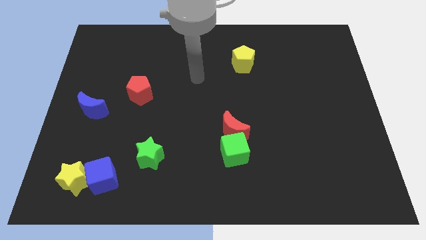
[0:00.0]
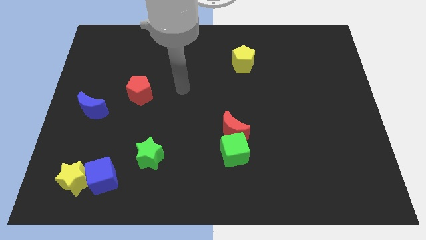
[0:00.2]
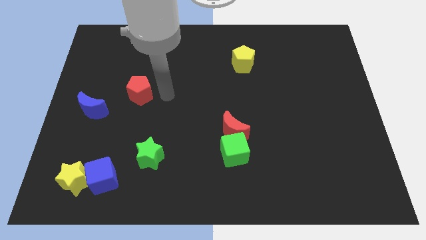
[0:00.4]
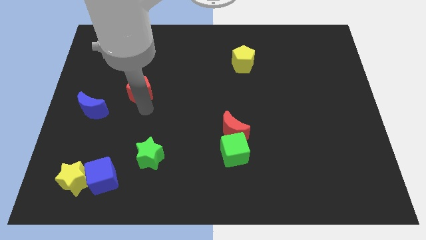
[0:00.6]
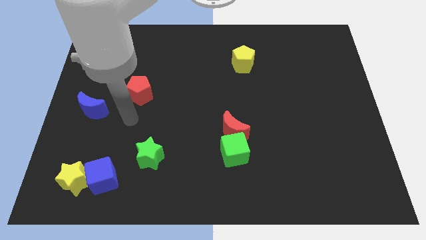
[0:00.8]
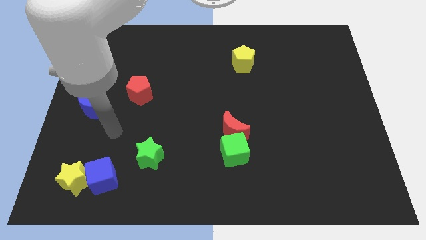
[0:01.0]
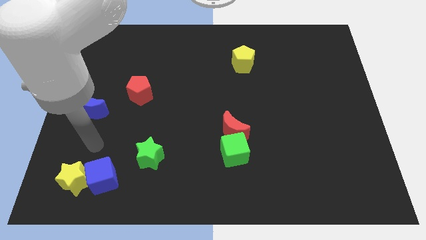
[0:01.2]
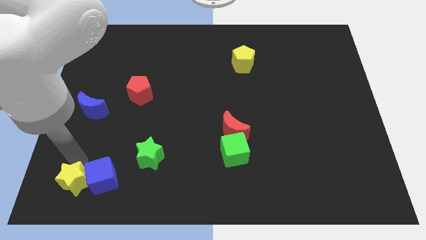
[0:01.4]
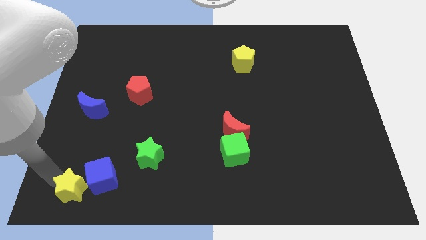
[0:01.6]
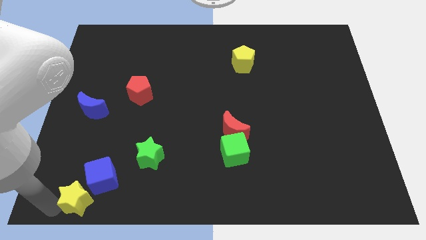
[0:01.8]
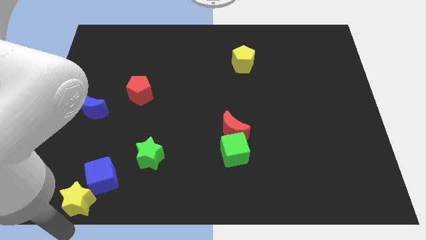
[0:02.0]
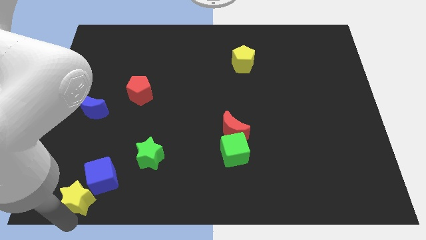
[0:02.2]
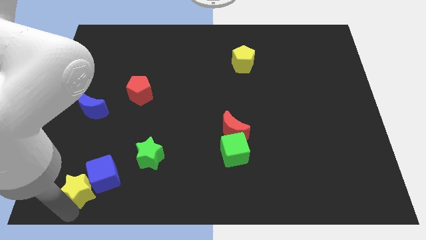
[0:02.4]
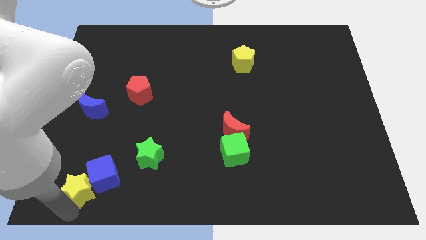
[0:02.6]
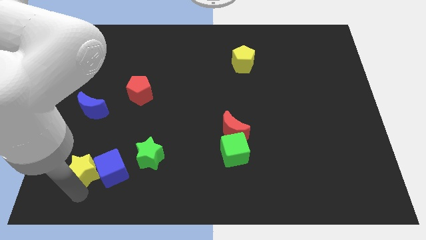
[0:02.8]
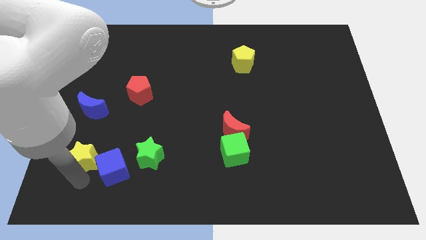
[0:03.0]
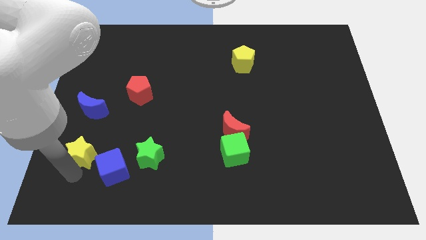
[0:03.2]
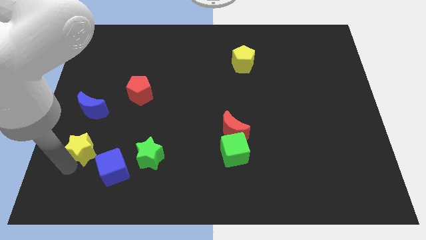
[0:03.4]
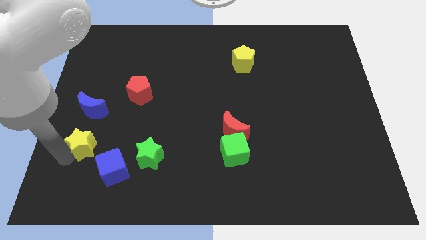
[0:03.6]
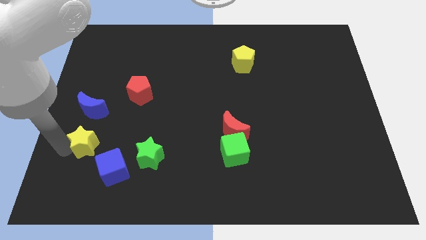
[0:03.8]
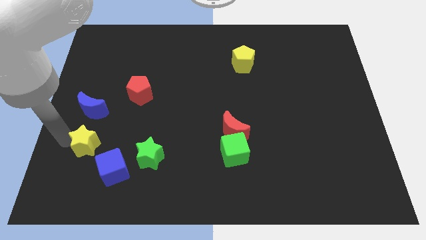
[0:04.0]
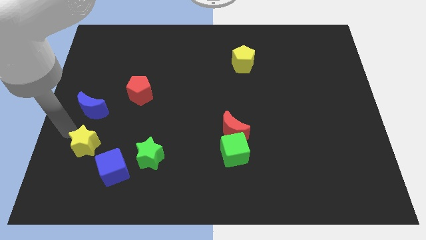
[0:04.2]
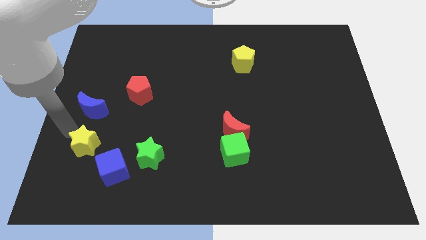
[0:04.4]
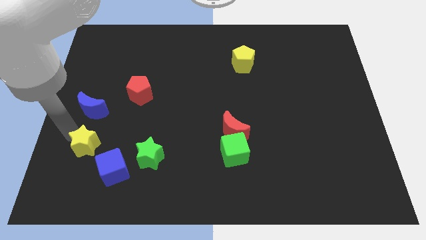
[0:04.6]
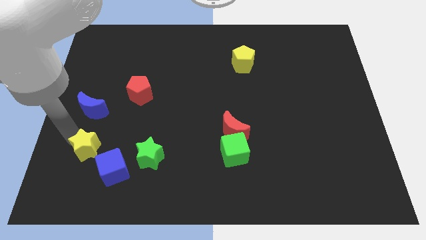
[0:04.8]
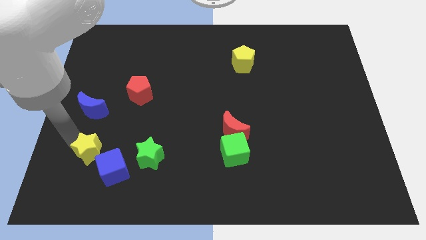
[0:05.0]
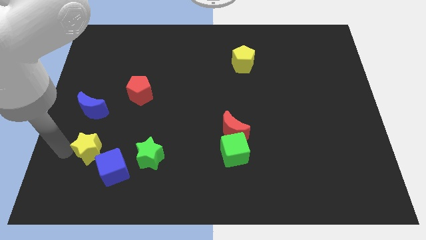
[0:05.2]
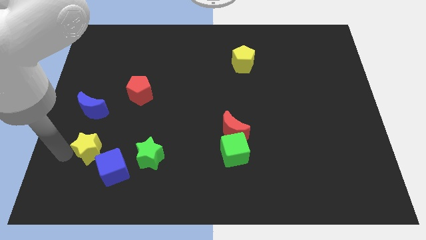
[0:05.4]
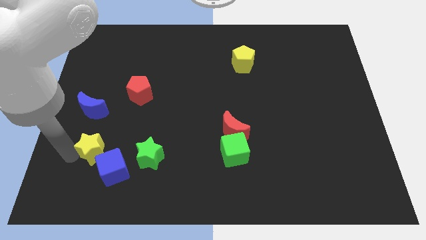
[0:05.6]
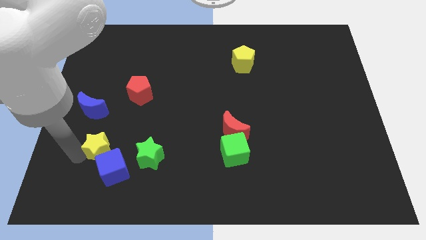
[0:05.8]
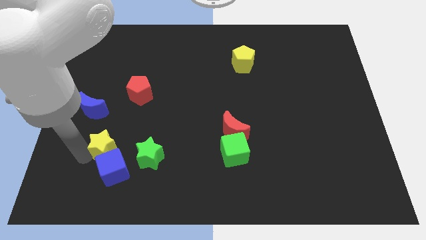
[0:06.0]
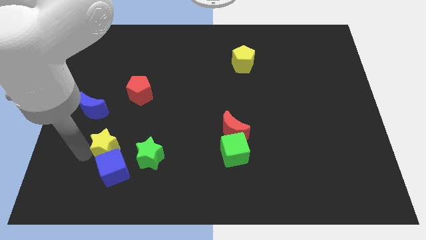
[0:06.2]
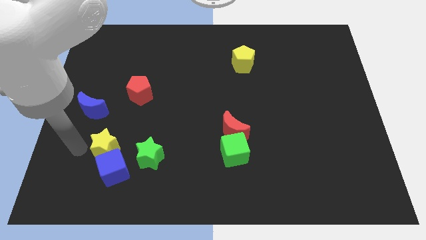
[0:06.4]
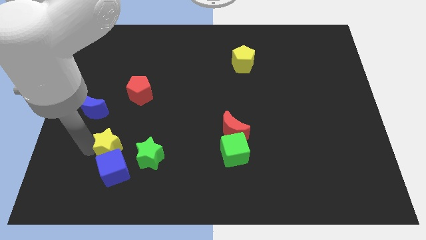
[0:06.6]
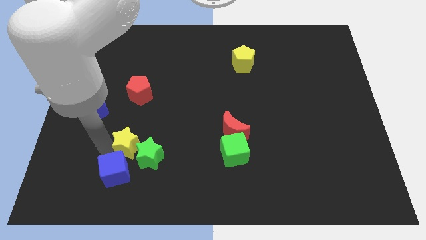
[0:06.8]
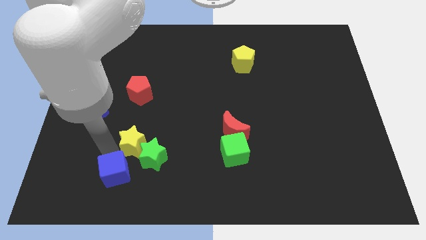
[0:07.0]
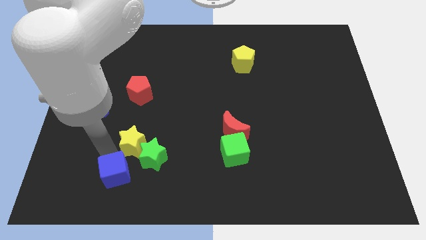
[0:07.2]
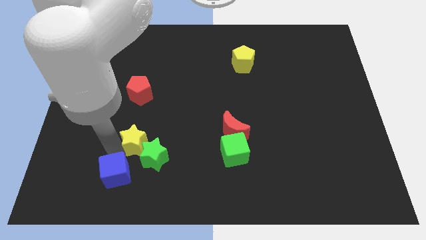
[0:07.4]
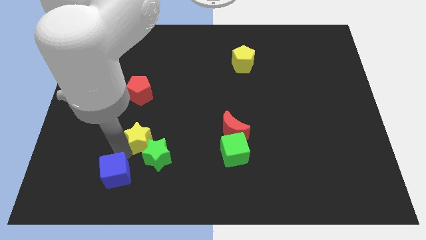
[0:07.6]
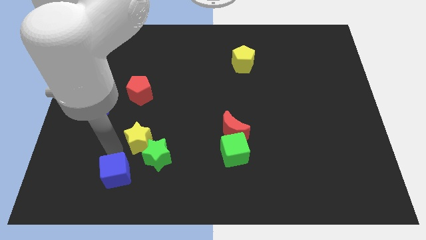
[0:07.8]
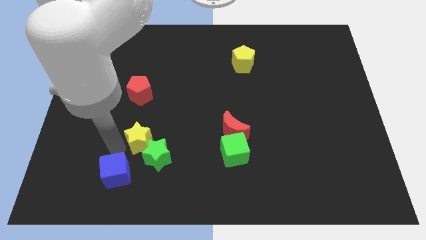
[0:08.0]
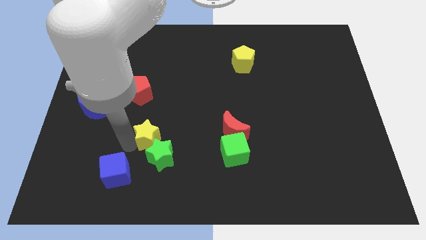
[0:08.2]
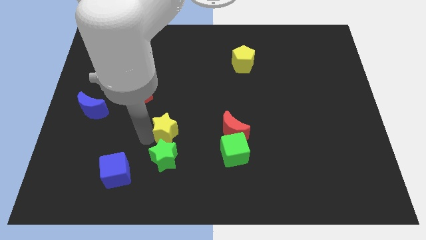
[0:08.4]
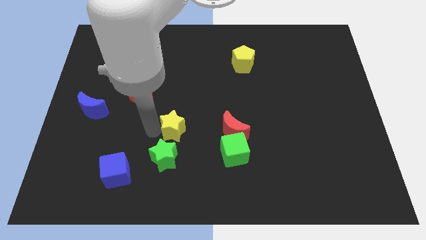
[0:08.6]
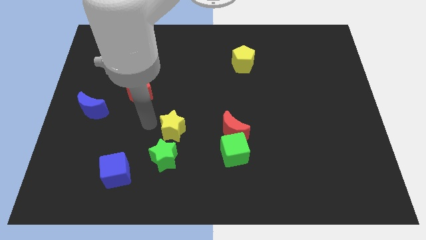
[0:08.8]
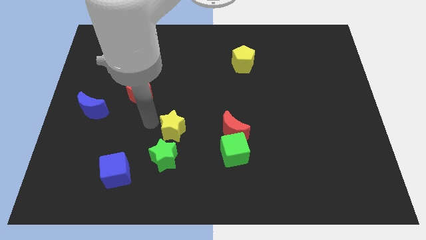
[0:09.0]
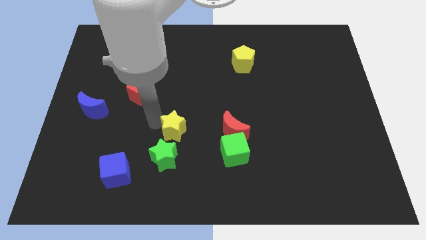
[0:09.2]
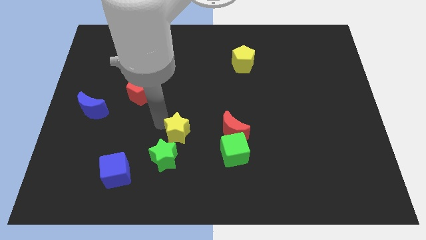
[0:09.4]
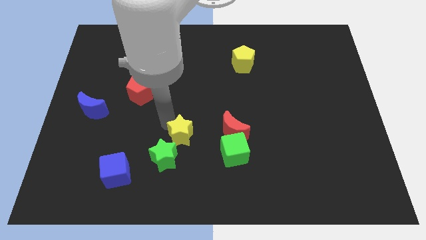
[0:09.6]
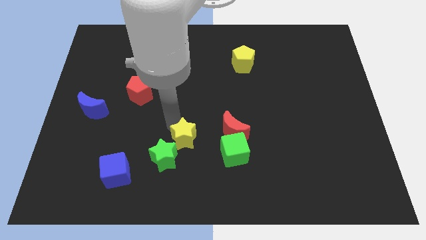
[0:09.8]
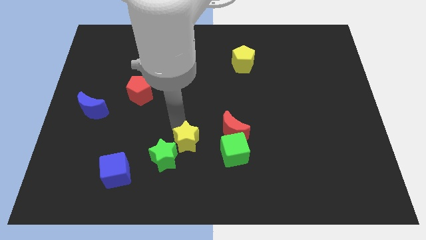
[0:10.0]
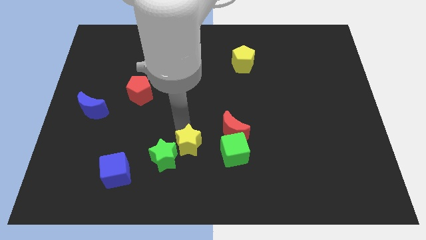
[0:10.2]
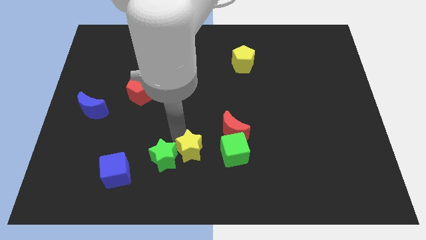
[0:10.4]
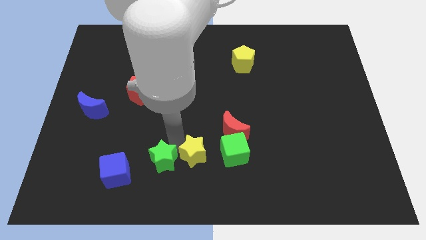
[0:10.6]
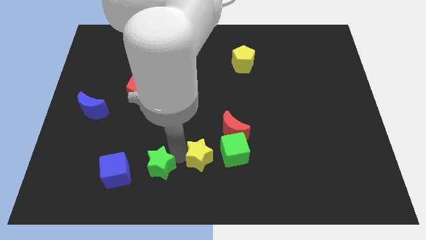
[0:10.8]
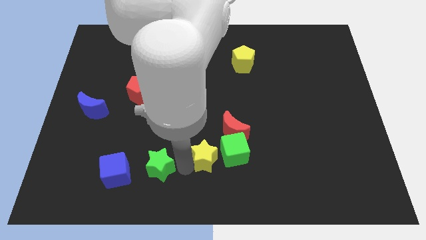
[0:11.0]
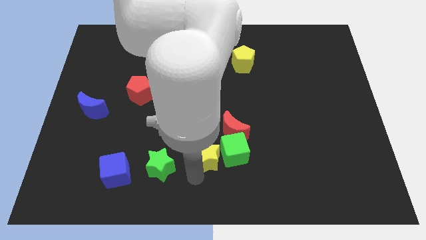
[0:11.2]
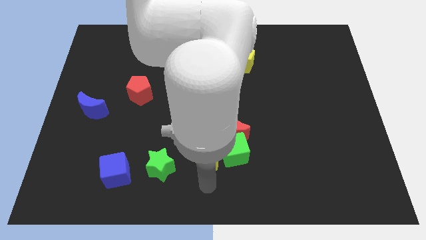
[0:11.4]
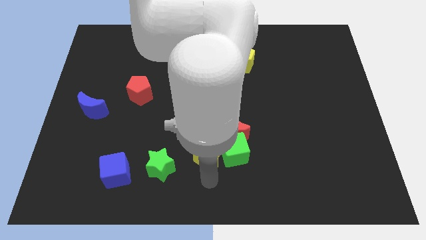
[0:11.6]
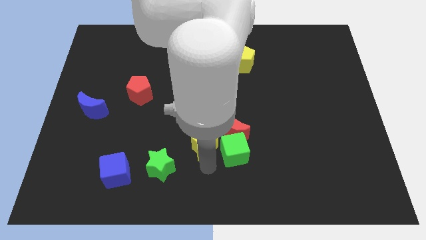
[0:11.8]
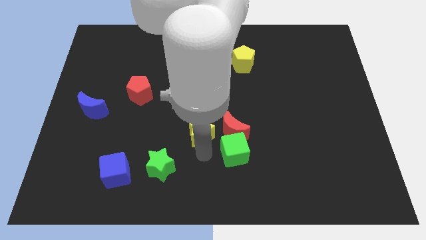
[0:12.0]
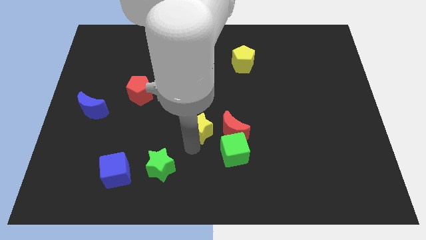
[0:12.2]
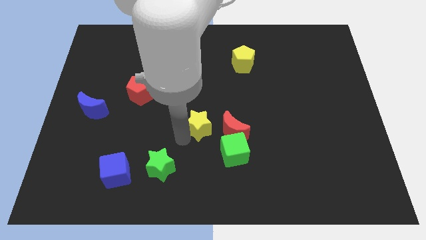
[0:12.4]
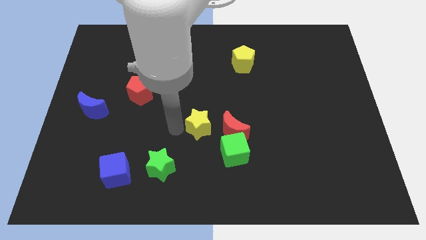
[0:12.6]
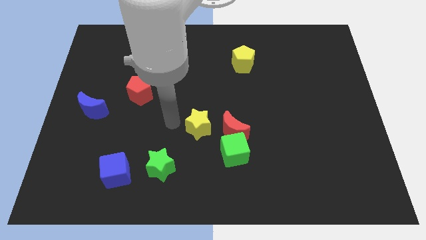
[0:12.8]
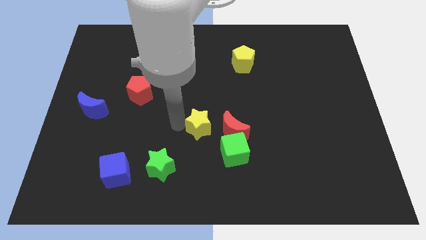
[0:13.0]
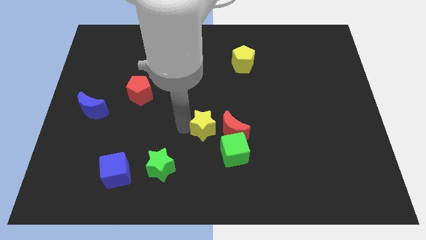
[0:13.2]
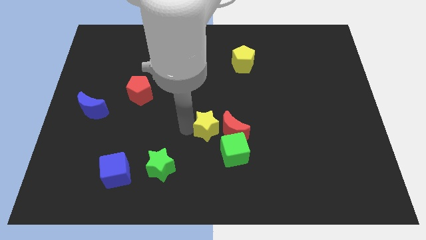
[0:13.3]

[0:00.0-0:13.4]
put the yellow star to the red moon

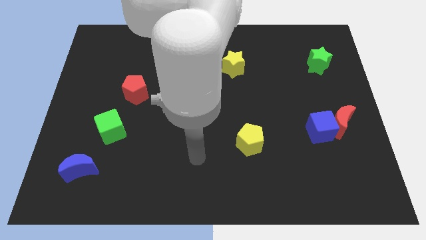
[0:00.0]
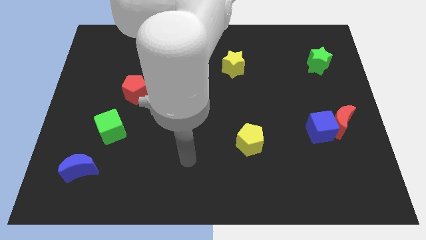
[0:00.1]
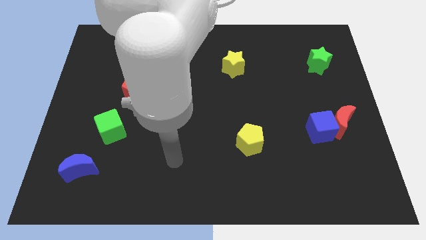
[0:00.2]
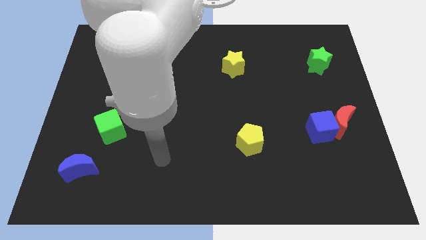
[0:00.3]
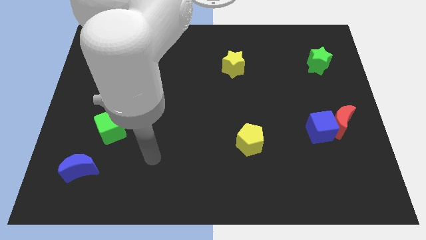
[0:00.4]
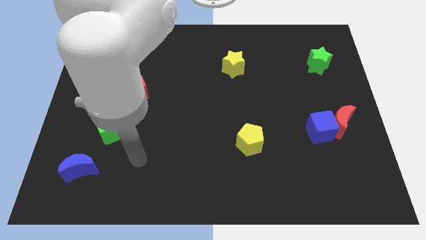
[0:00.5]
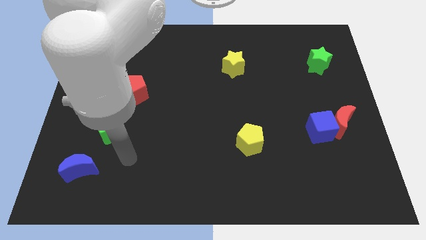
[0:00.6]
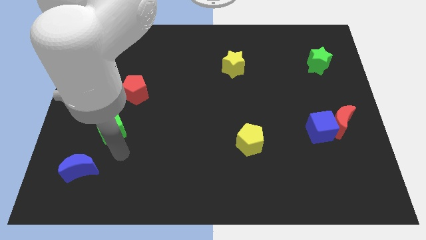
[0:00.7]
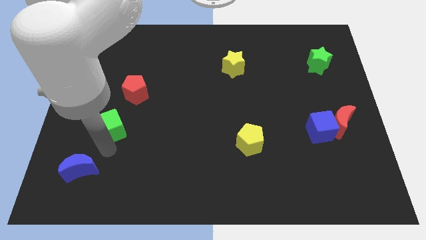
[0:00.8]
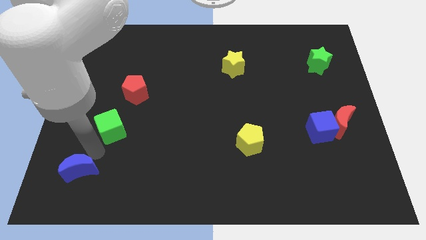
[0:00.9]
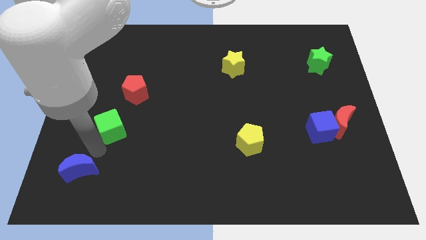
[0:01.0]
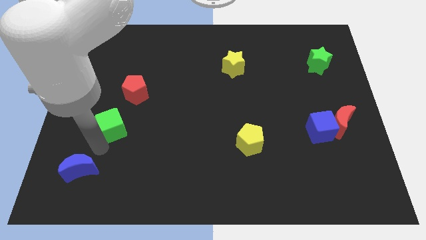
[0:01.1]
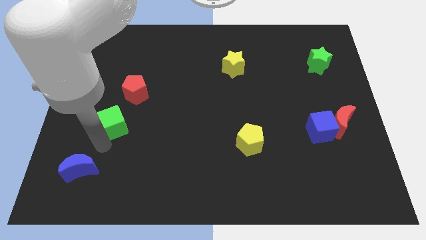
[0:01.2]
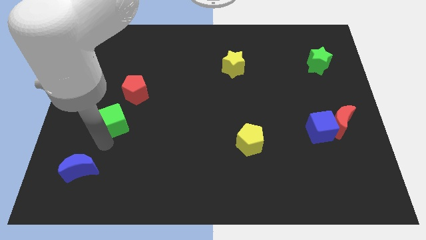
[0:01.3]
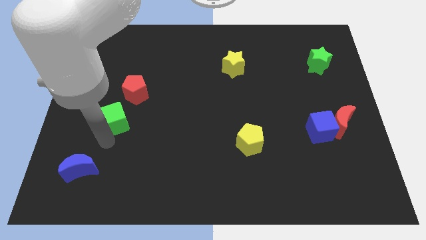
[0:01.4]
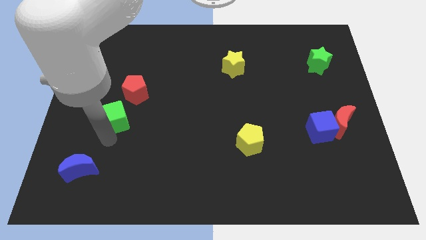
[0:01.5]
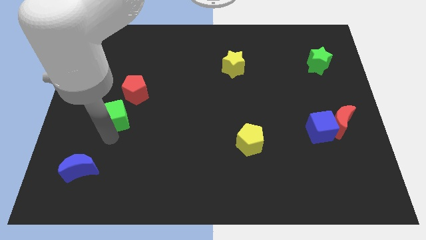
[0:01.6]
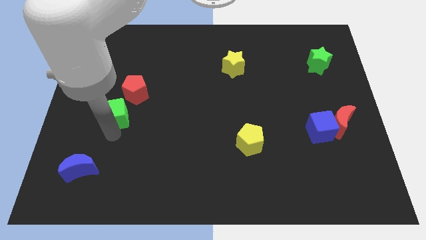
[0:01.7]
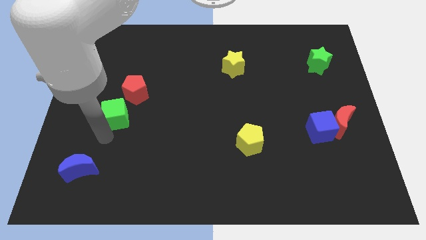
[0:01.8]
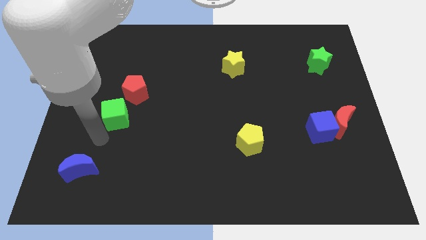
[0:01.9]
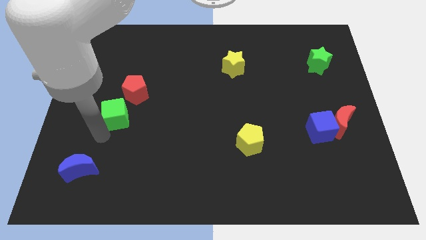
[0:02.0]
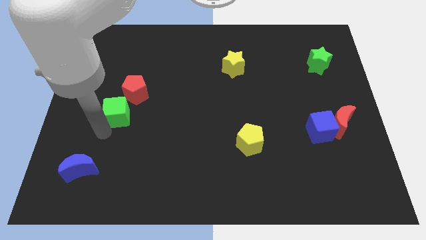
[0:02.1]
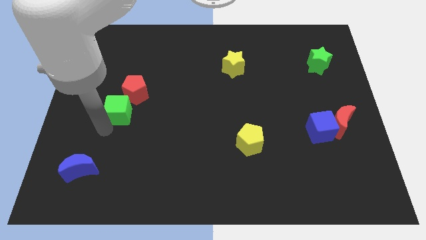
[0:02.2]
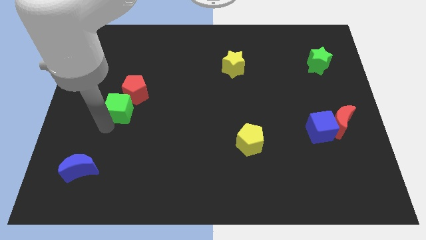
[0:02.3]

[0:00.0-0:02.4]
move the green cube next to the red pentagon
